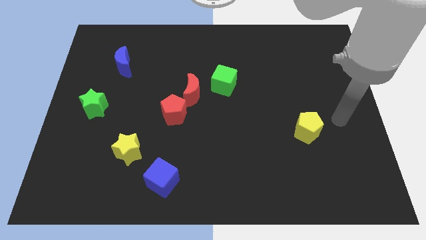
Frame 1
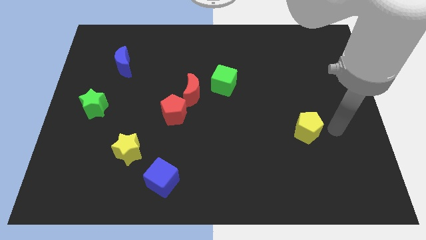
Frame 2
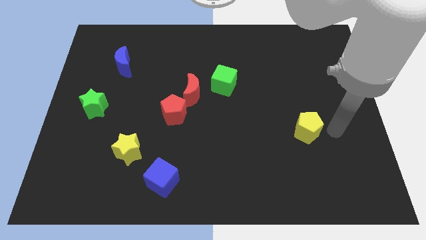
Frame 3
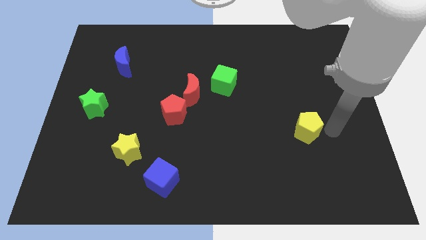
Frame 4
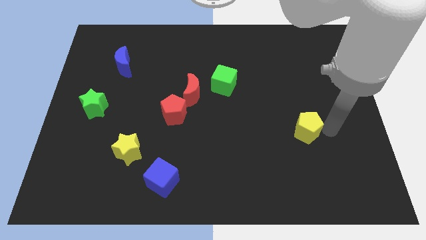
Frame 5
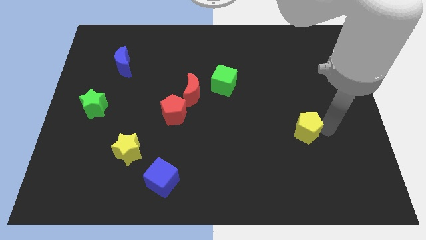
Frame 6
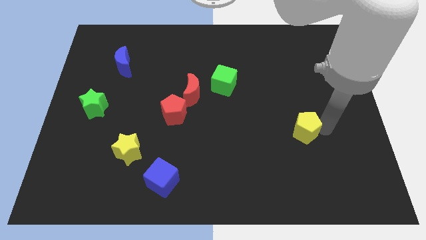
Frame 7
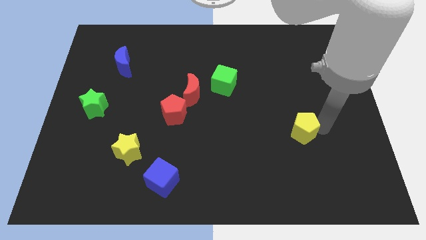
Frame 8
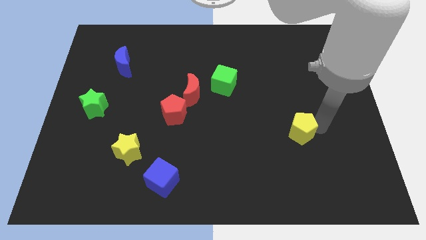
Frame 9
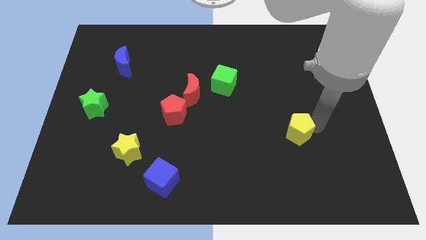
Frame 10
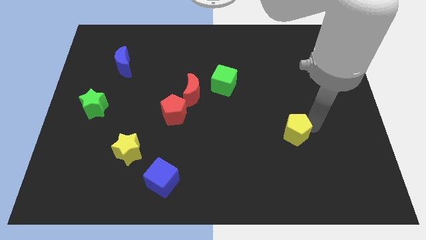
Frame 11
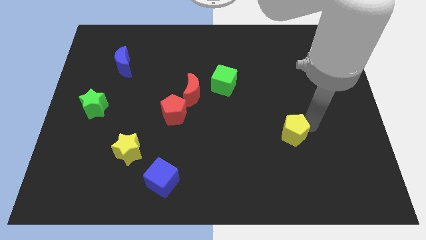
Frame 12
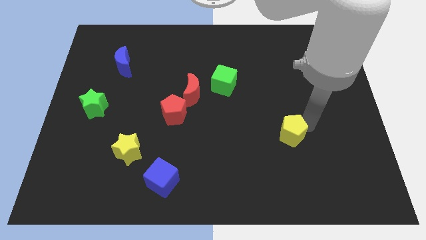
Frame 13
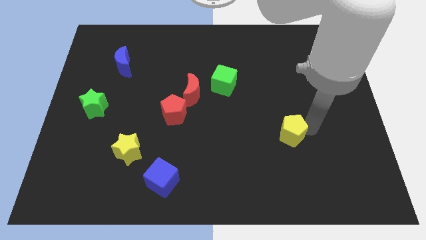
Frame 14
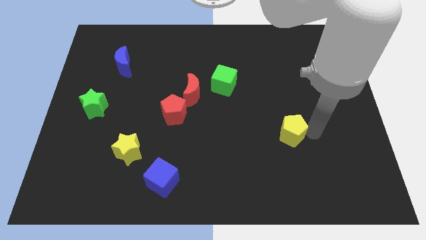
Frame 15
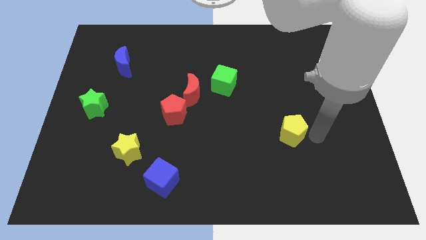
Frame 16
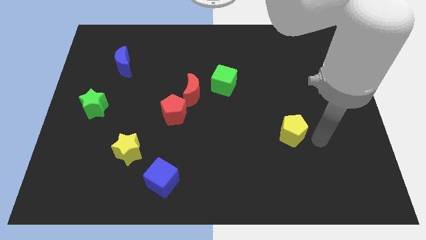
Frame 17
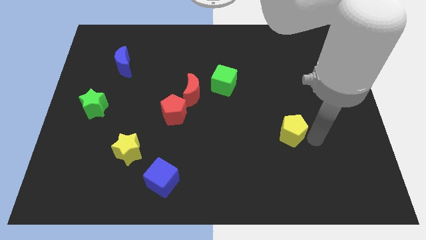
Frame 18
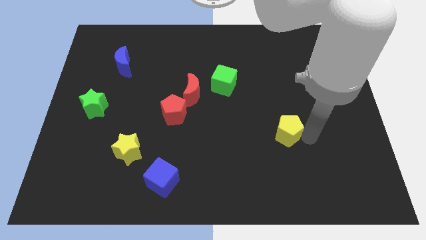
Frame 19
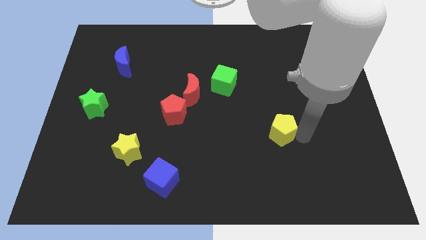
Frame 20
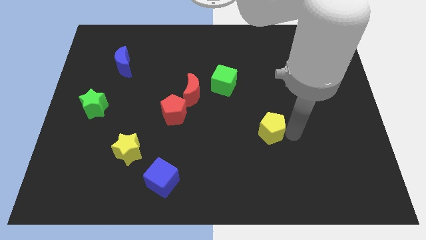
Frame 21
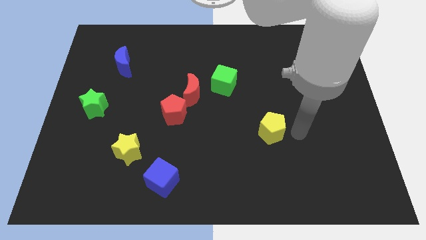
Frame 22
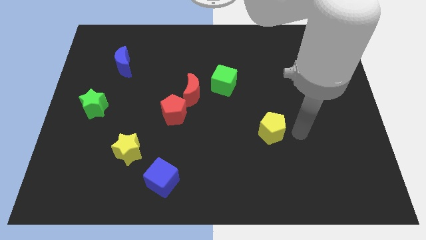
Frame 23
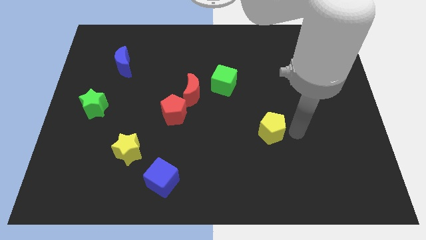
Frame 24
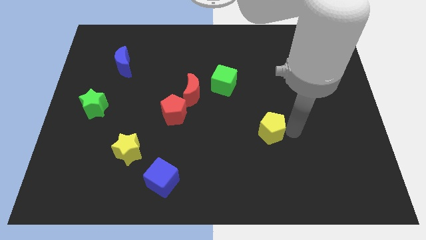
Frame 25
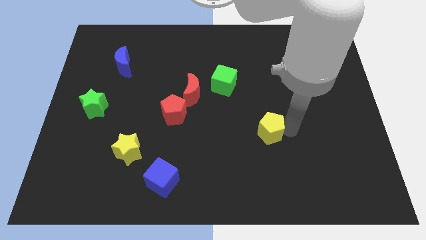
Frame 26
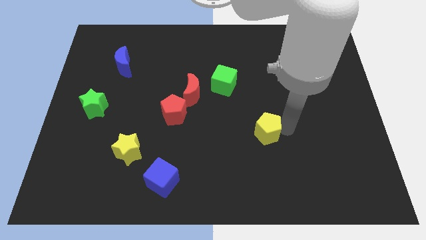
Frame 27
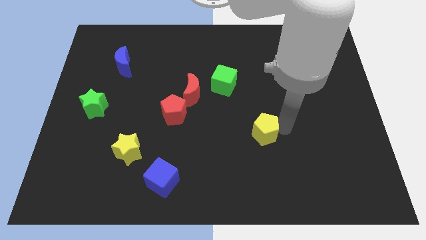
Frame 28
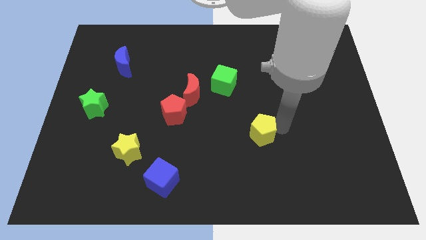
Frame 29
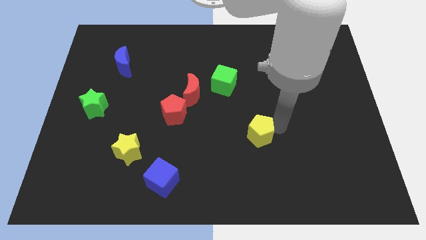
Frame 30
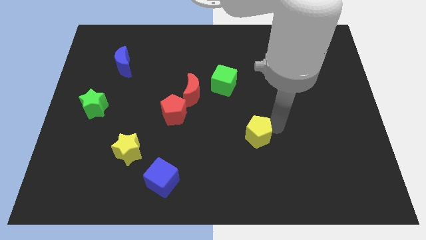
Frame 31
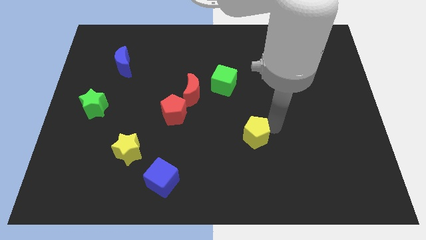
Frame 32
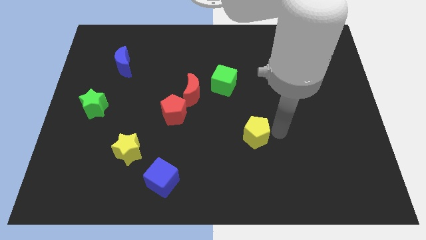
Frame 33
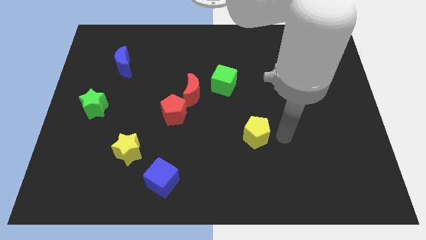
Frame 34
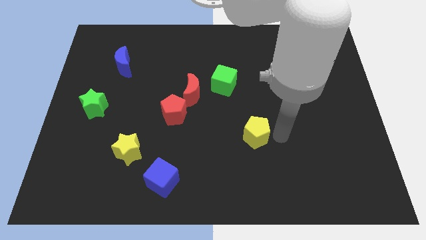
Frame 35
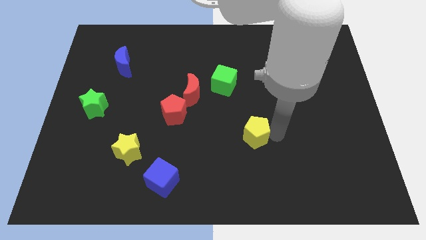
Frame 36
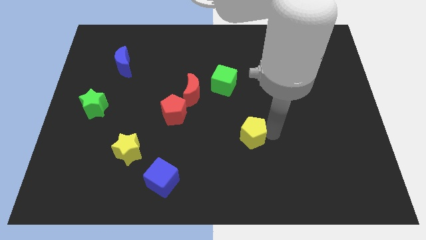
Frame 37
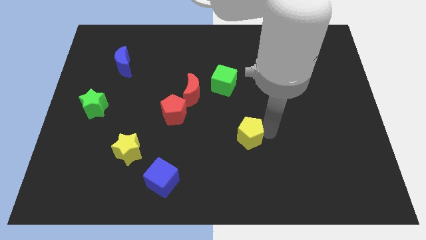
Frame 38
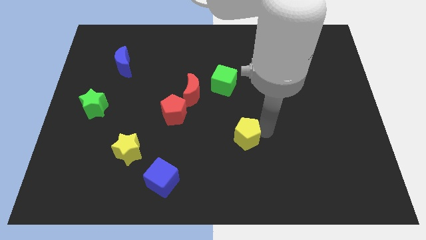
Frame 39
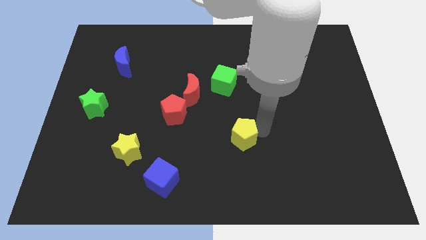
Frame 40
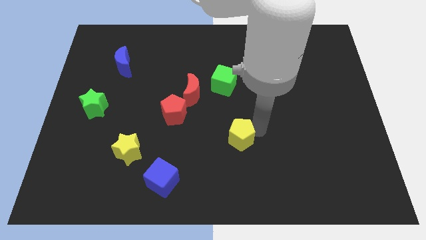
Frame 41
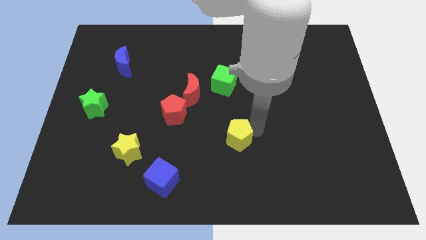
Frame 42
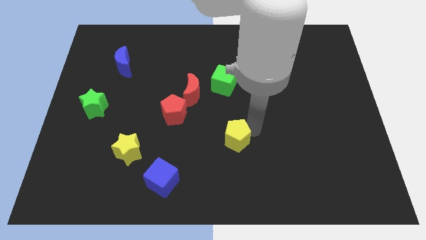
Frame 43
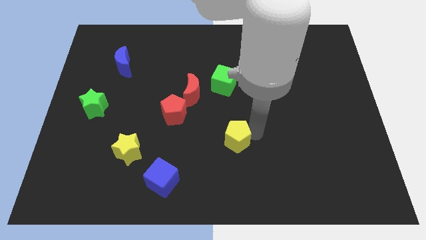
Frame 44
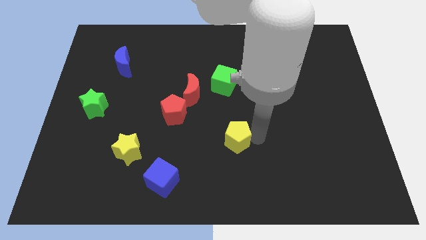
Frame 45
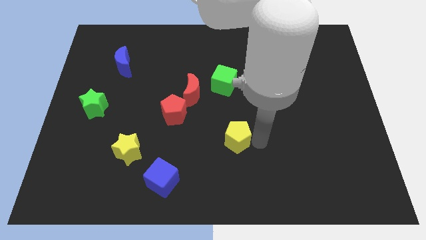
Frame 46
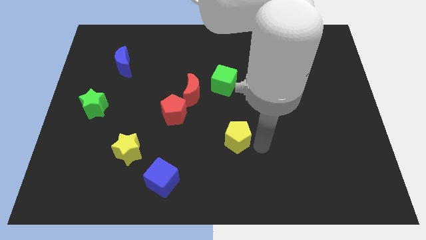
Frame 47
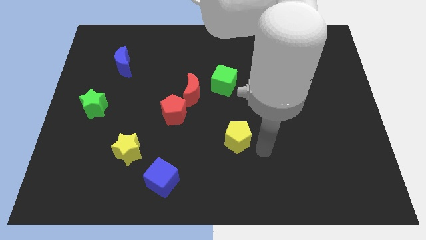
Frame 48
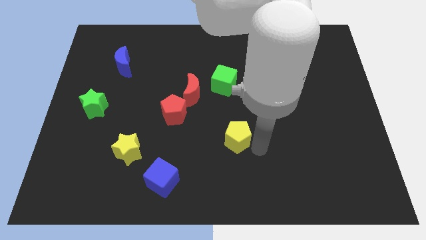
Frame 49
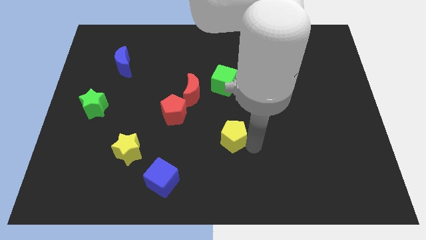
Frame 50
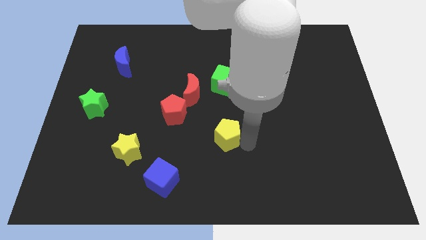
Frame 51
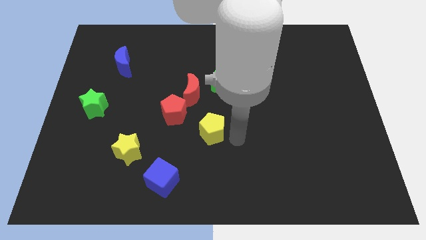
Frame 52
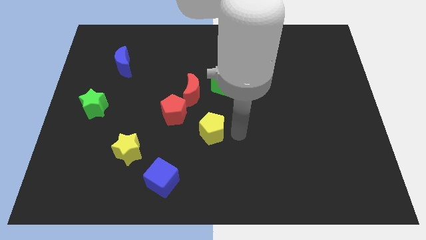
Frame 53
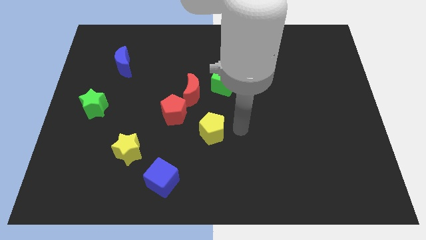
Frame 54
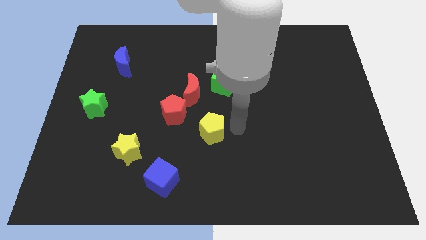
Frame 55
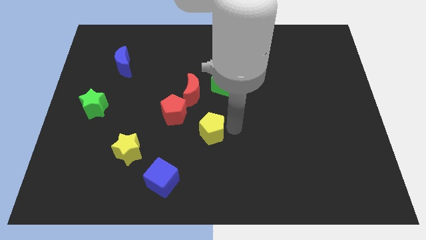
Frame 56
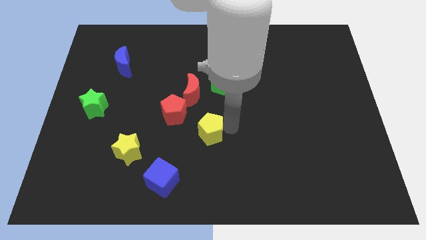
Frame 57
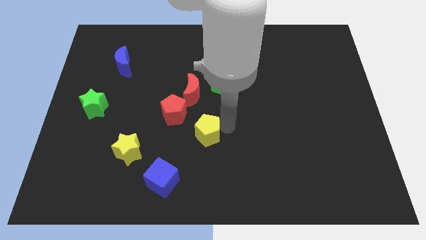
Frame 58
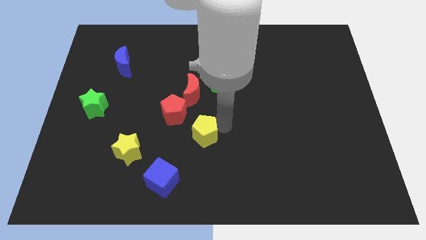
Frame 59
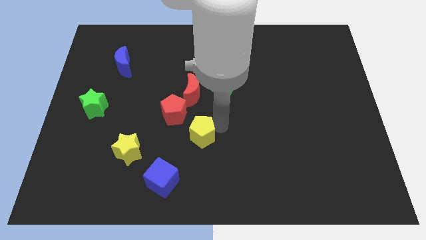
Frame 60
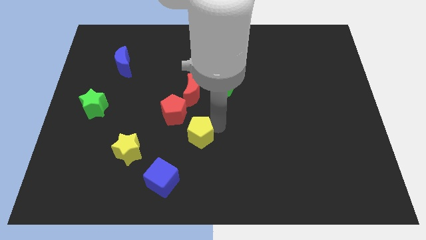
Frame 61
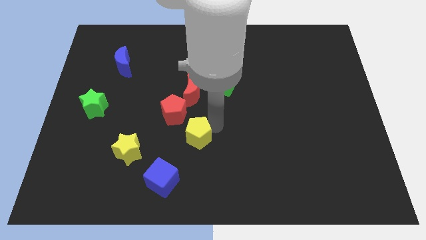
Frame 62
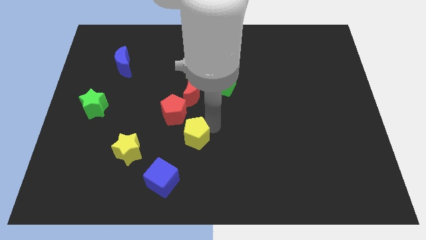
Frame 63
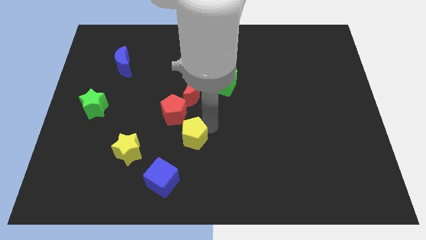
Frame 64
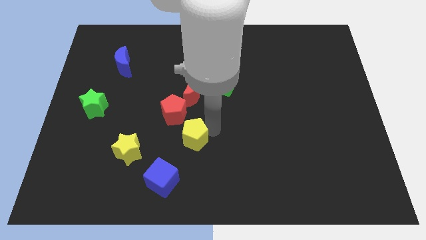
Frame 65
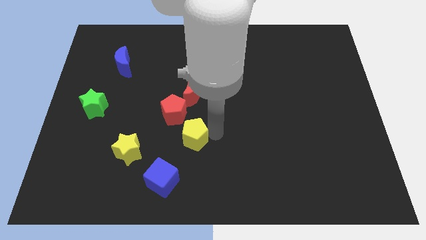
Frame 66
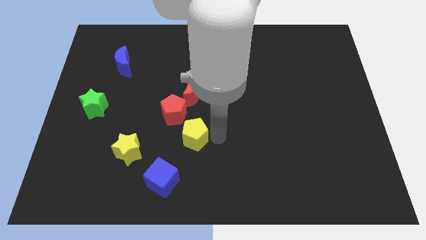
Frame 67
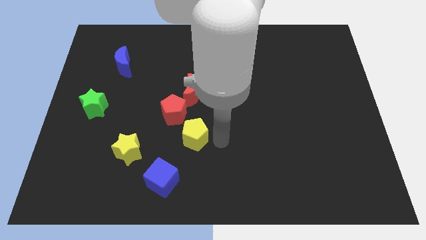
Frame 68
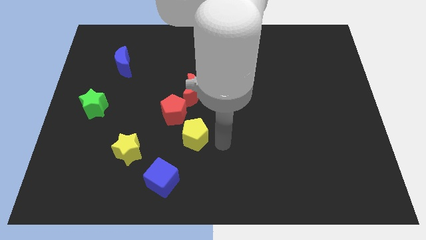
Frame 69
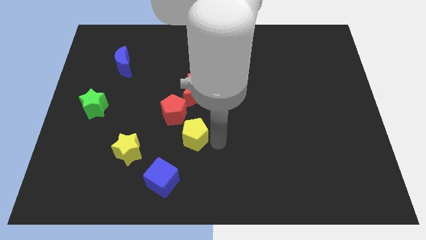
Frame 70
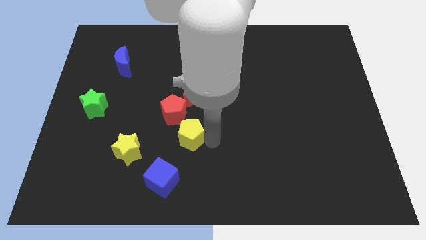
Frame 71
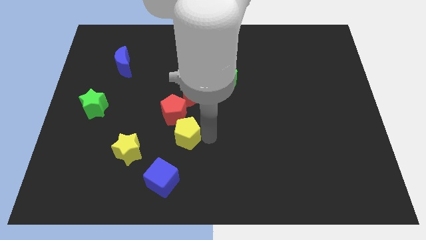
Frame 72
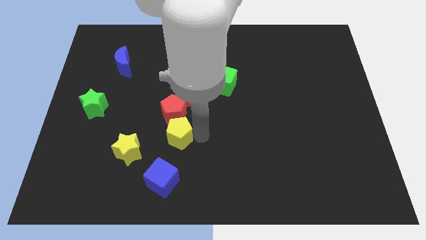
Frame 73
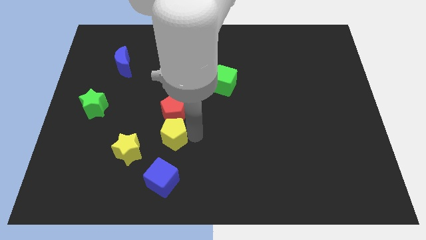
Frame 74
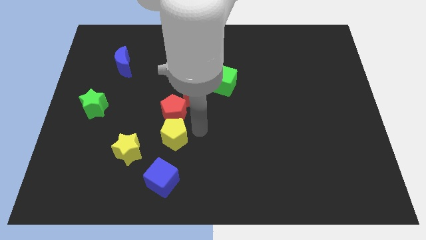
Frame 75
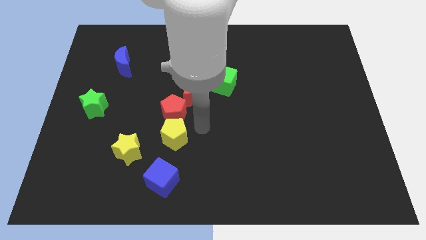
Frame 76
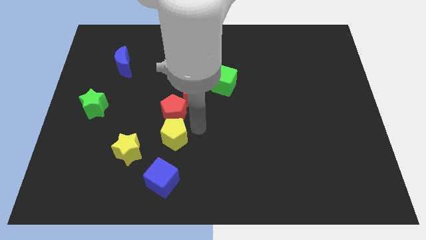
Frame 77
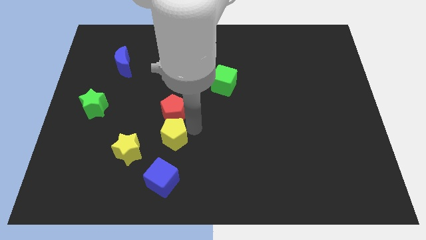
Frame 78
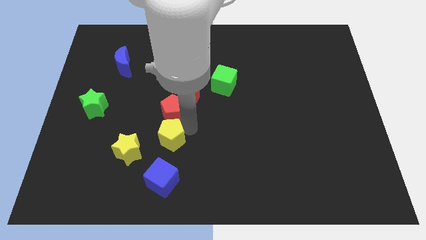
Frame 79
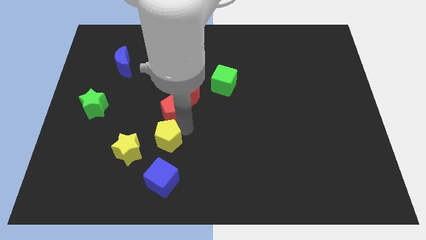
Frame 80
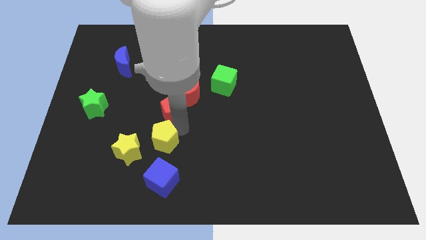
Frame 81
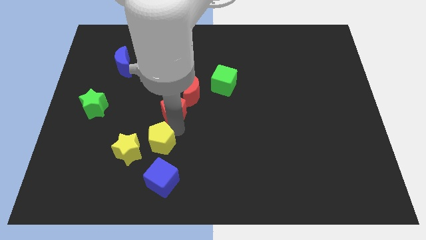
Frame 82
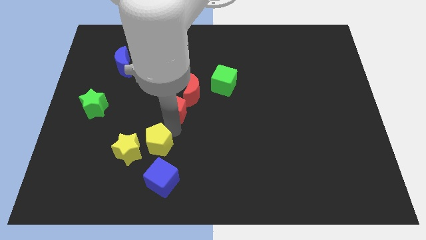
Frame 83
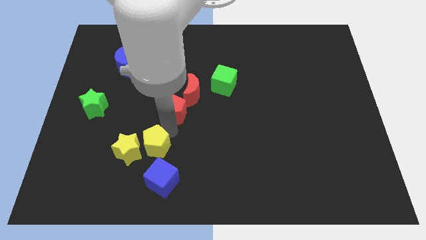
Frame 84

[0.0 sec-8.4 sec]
put the yellow pentagon to the yellow star
